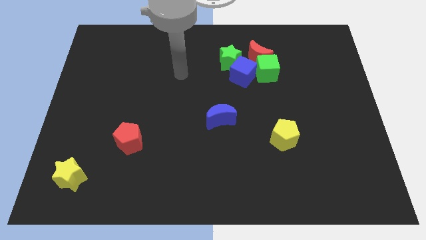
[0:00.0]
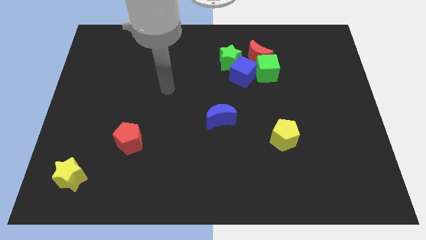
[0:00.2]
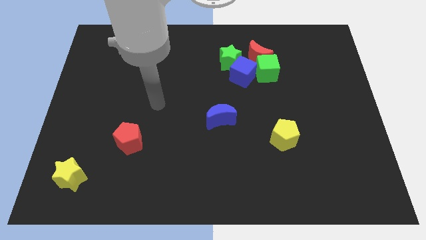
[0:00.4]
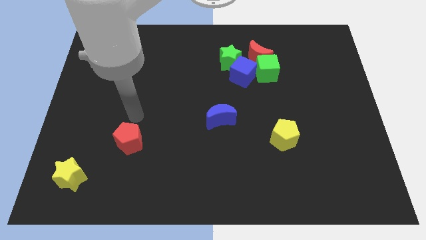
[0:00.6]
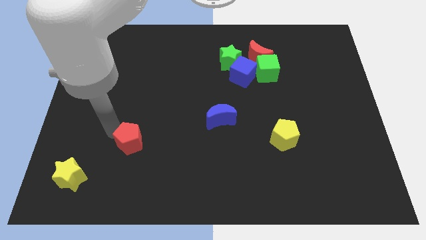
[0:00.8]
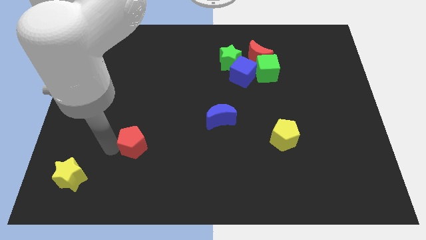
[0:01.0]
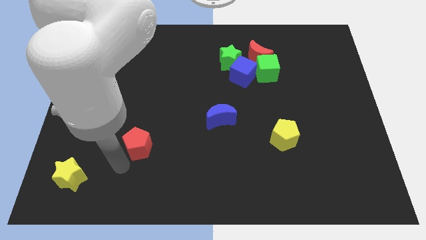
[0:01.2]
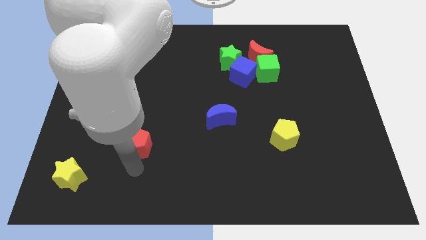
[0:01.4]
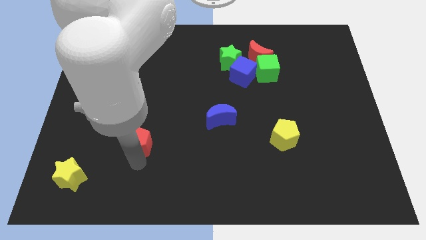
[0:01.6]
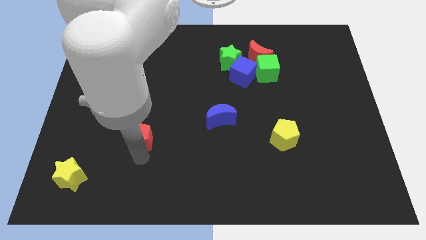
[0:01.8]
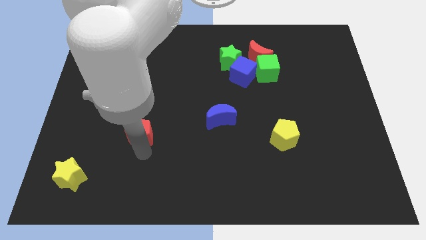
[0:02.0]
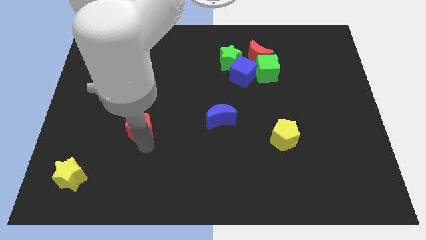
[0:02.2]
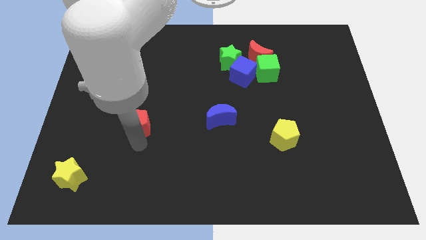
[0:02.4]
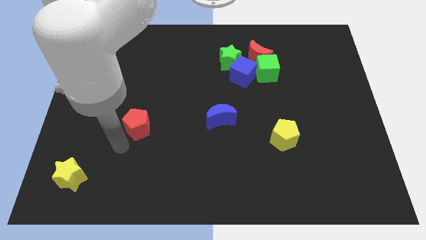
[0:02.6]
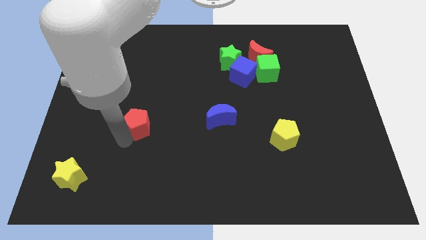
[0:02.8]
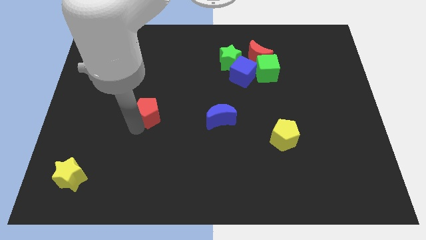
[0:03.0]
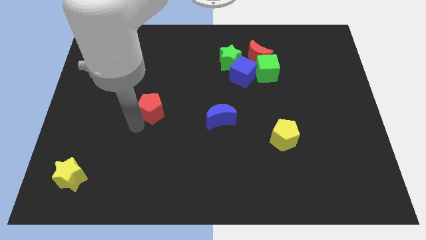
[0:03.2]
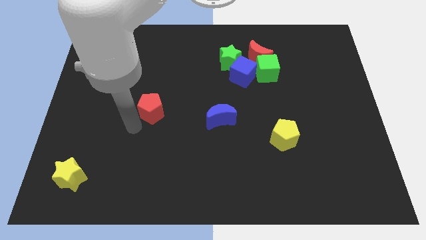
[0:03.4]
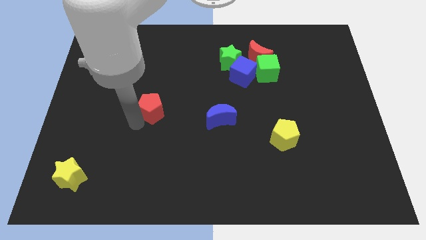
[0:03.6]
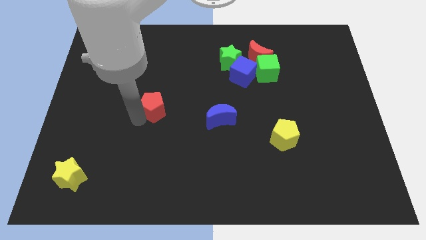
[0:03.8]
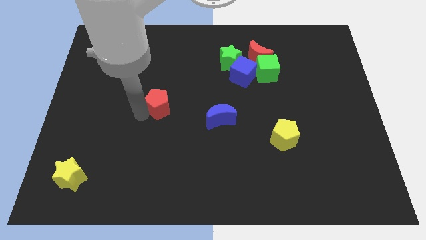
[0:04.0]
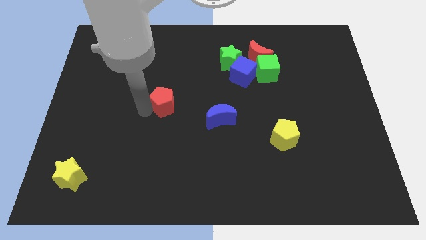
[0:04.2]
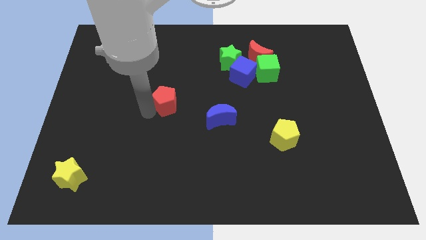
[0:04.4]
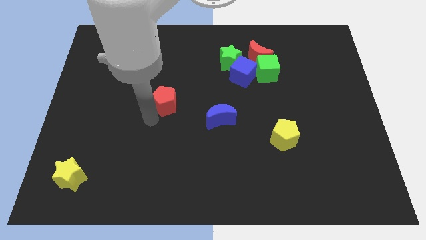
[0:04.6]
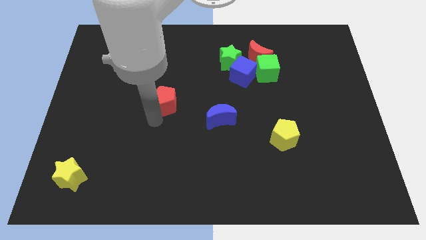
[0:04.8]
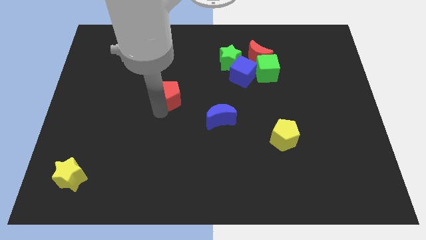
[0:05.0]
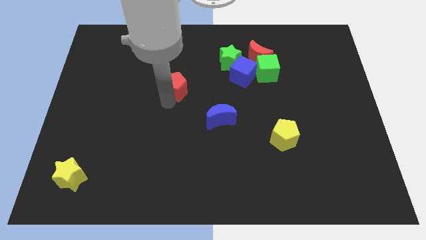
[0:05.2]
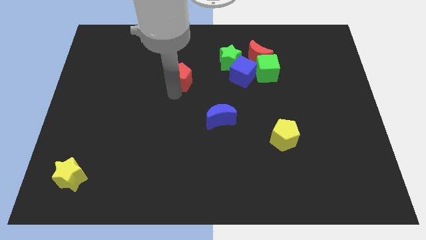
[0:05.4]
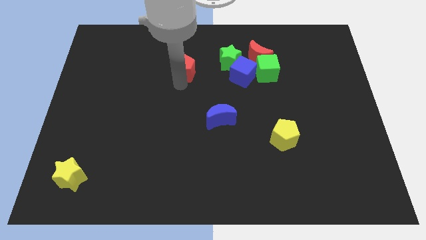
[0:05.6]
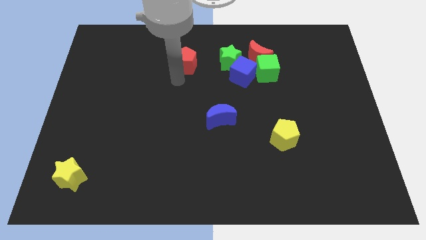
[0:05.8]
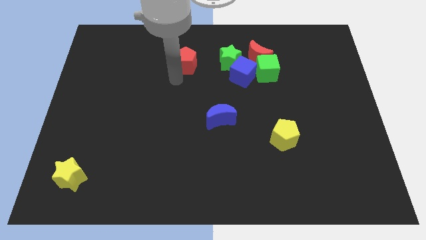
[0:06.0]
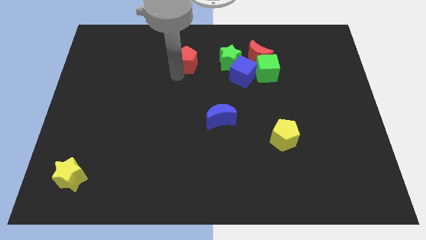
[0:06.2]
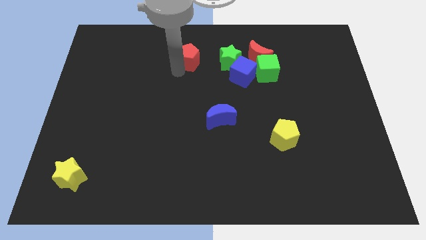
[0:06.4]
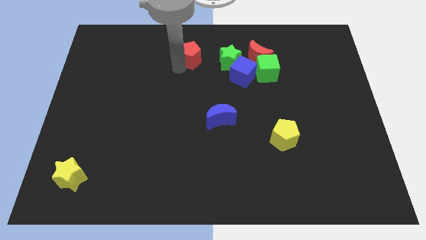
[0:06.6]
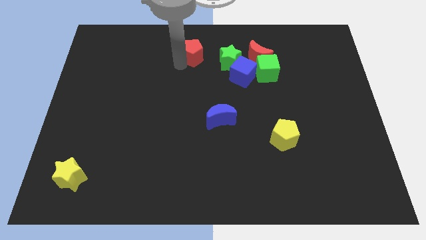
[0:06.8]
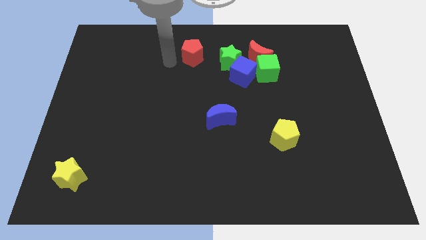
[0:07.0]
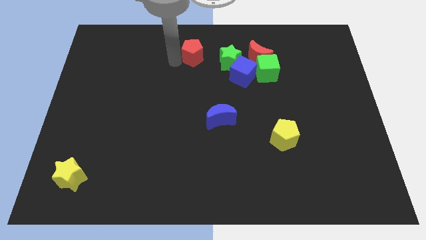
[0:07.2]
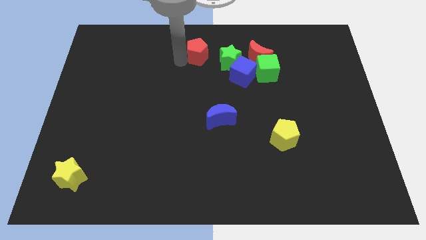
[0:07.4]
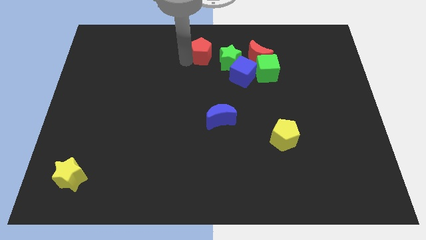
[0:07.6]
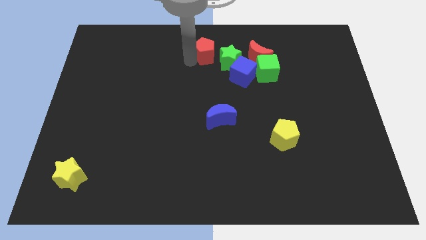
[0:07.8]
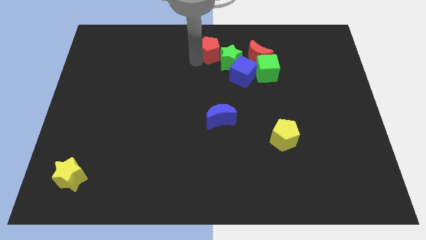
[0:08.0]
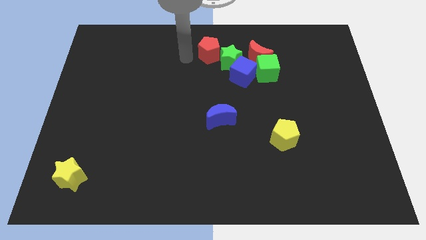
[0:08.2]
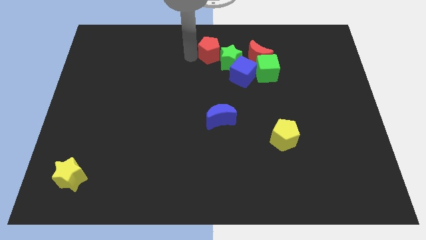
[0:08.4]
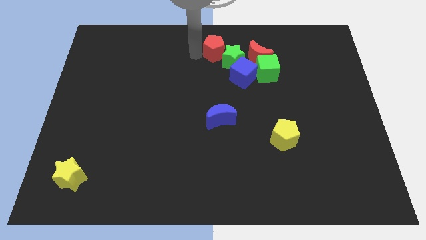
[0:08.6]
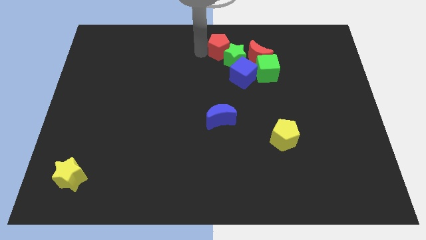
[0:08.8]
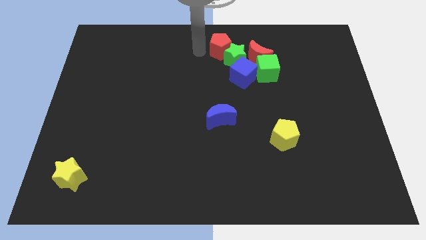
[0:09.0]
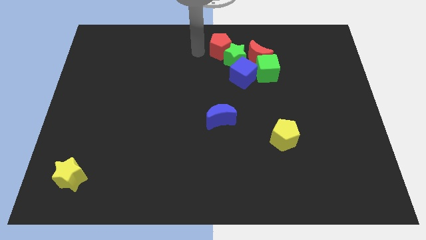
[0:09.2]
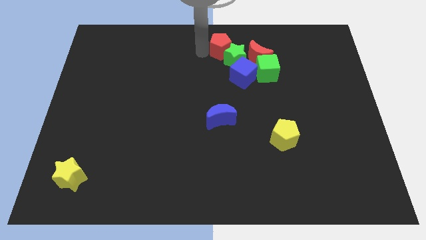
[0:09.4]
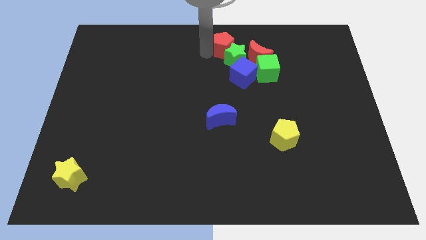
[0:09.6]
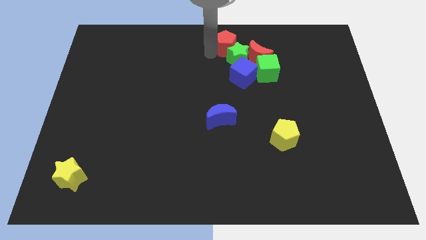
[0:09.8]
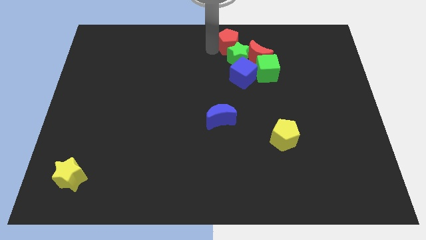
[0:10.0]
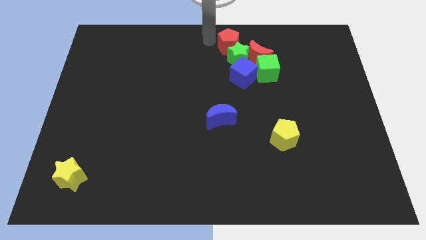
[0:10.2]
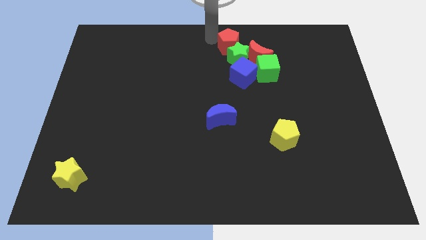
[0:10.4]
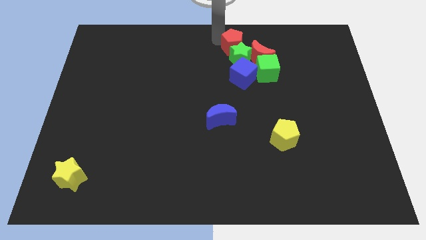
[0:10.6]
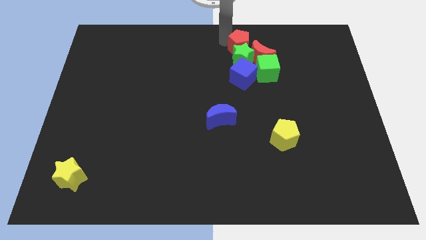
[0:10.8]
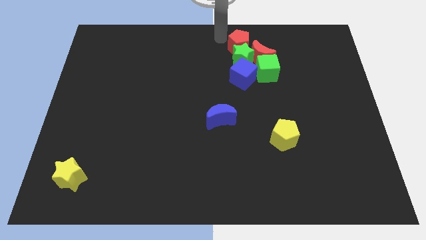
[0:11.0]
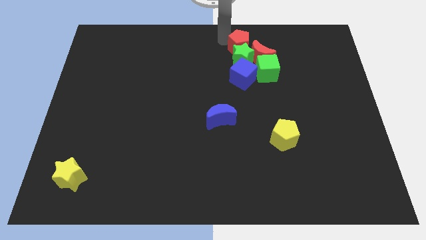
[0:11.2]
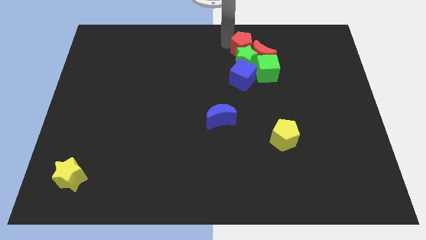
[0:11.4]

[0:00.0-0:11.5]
push the red pentagon next to the red moon

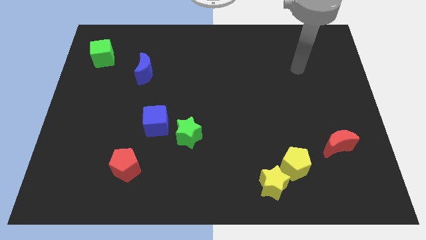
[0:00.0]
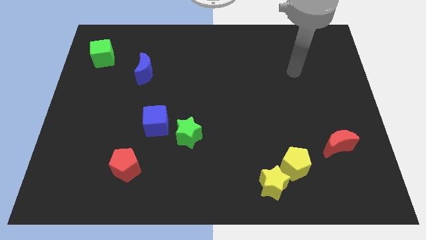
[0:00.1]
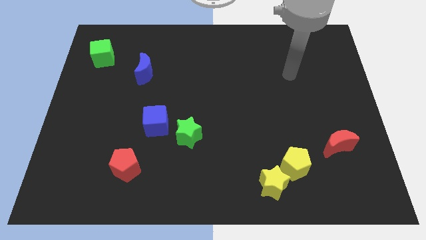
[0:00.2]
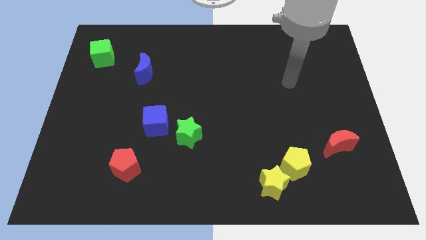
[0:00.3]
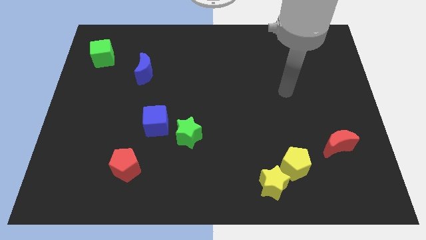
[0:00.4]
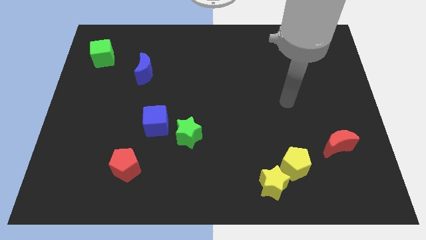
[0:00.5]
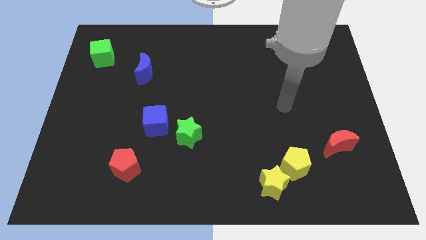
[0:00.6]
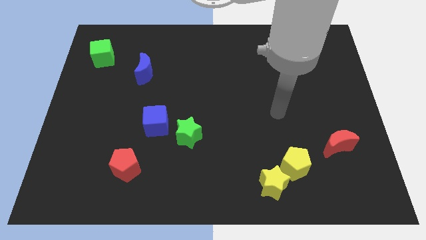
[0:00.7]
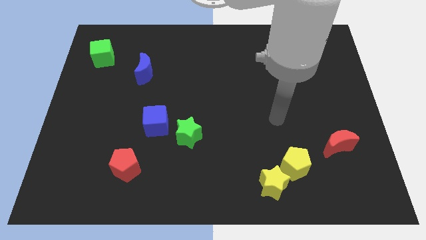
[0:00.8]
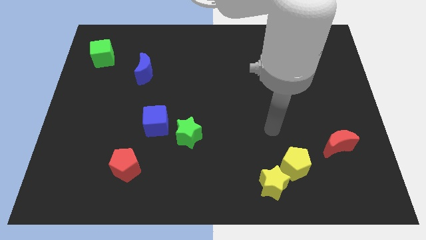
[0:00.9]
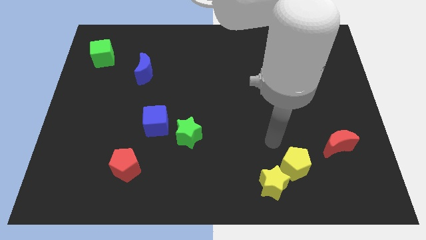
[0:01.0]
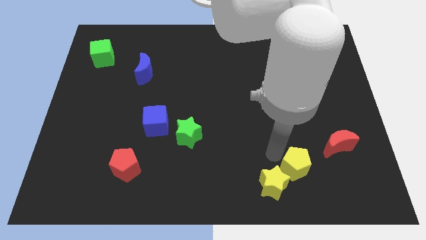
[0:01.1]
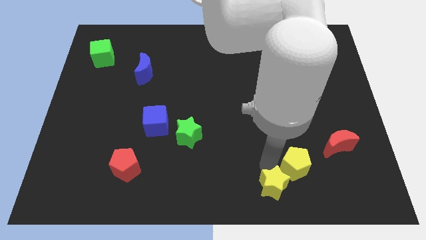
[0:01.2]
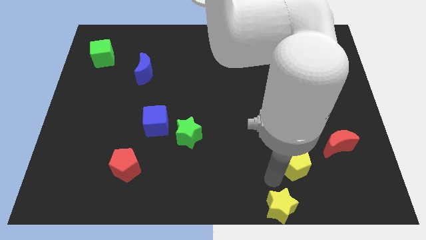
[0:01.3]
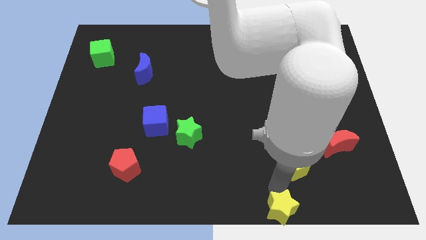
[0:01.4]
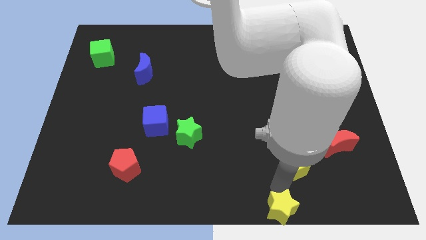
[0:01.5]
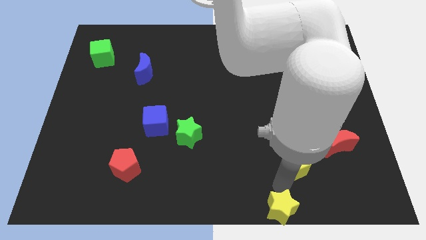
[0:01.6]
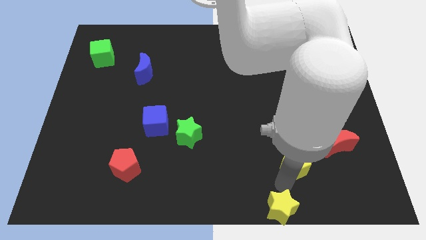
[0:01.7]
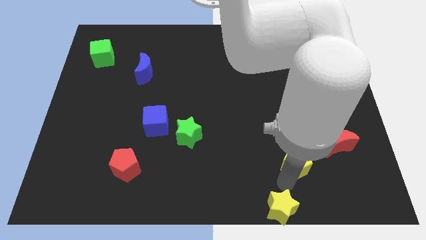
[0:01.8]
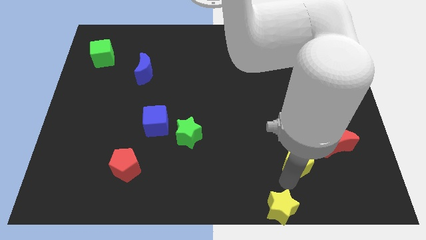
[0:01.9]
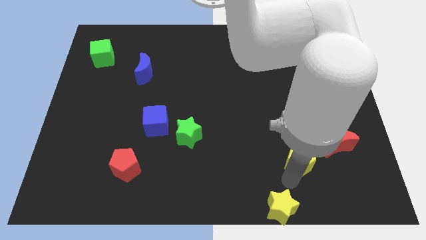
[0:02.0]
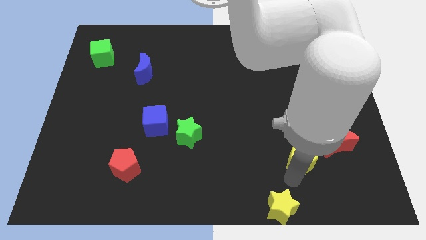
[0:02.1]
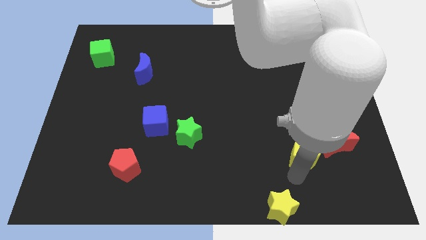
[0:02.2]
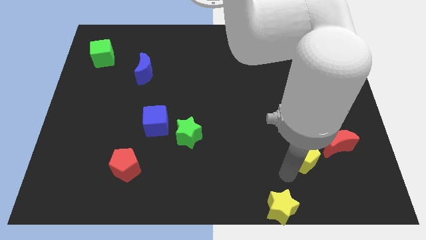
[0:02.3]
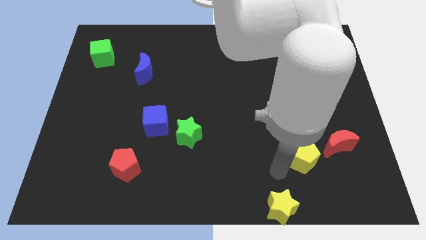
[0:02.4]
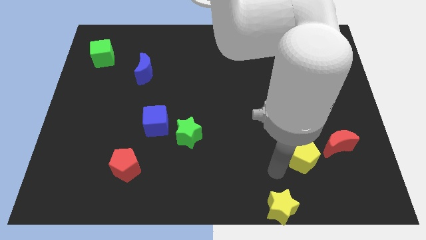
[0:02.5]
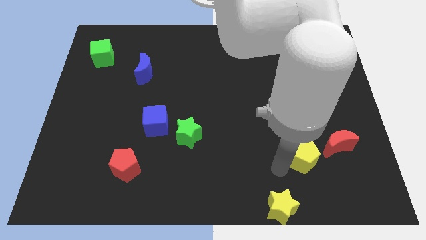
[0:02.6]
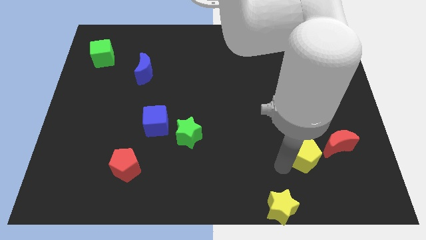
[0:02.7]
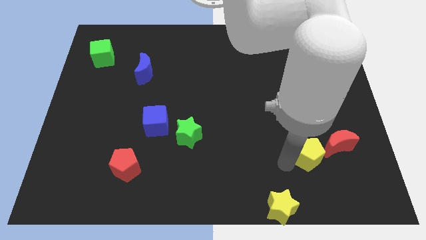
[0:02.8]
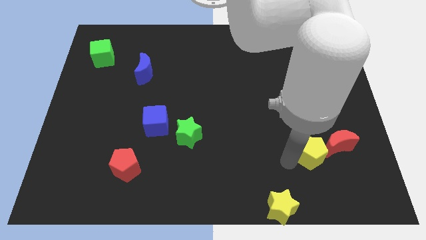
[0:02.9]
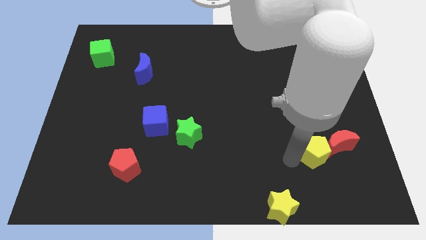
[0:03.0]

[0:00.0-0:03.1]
slide the yellow pentagon close to the red moon
